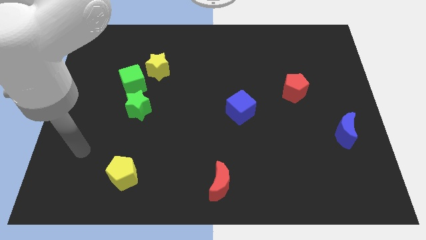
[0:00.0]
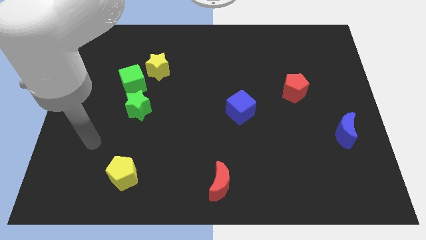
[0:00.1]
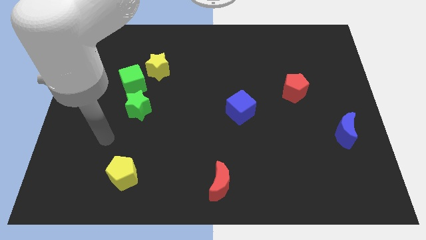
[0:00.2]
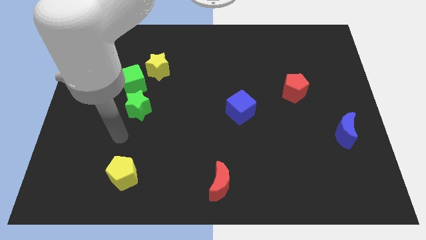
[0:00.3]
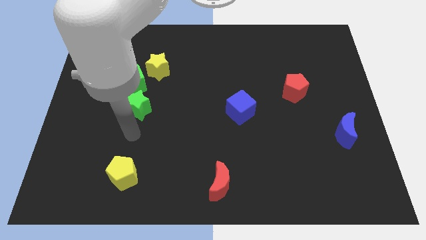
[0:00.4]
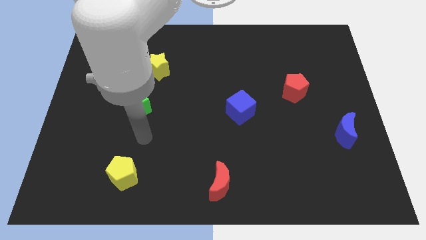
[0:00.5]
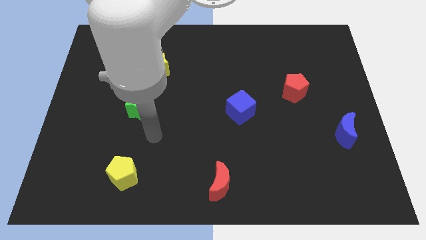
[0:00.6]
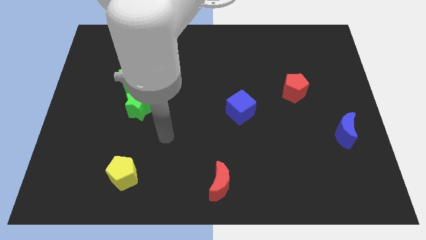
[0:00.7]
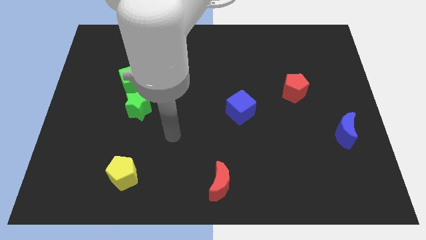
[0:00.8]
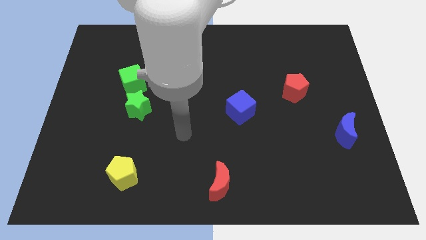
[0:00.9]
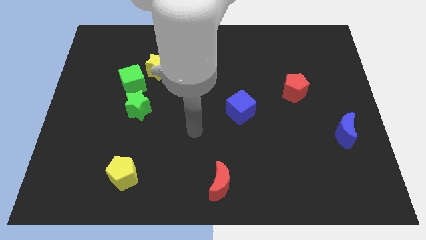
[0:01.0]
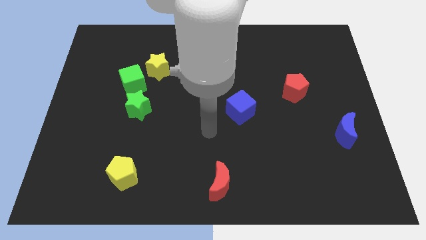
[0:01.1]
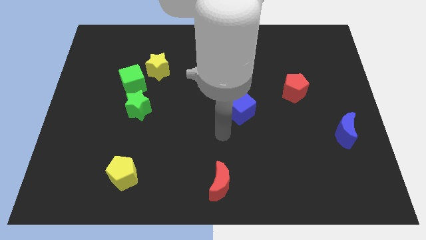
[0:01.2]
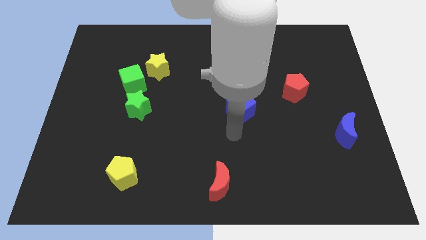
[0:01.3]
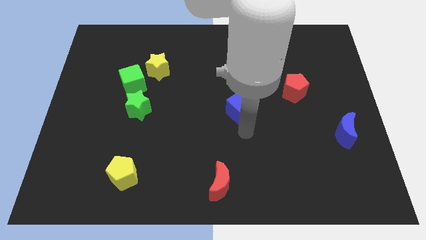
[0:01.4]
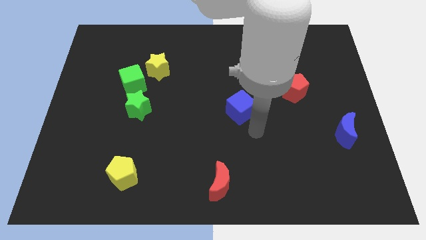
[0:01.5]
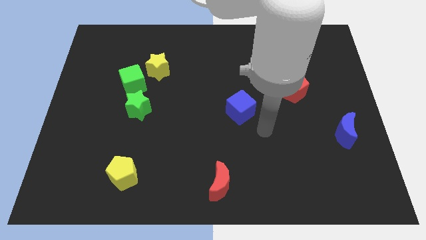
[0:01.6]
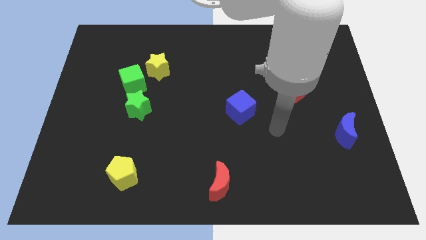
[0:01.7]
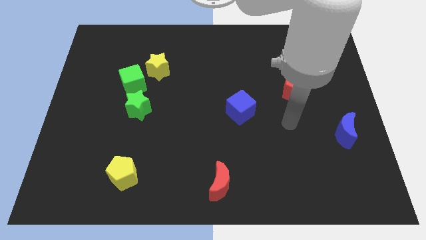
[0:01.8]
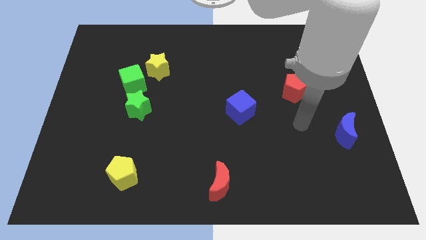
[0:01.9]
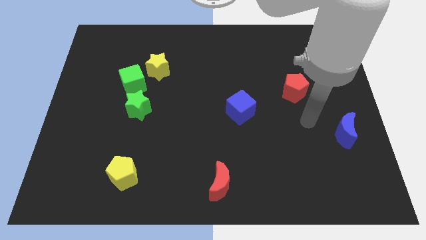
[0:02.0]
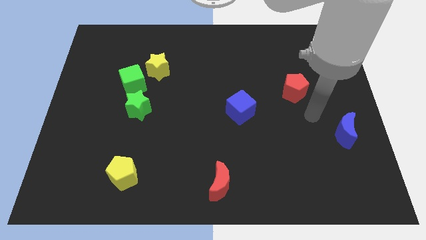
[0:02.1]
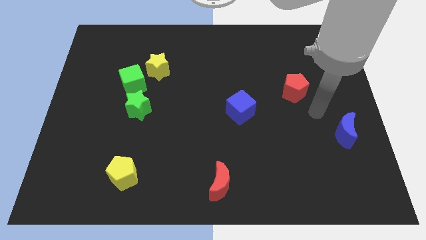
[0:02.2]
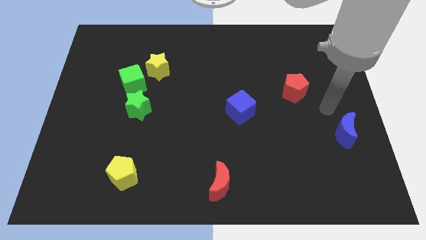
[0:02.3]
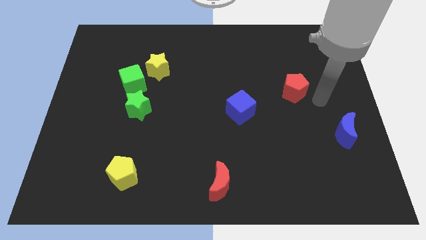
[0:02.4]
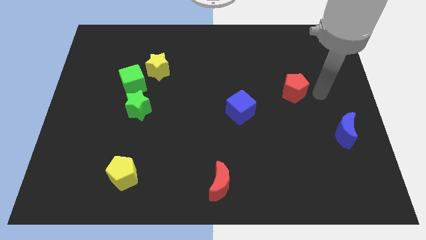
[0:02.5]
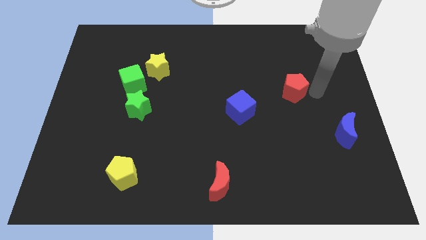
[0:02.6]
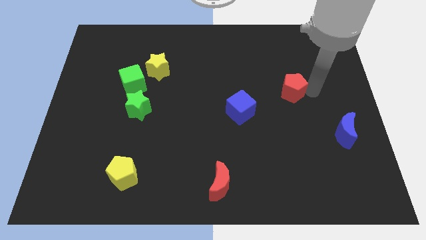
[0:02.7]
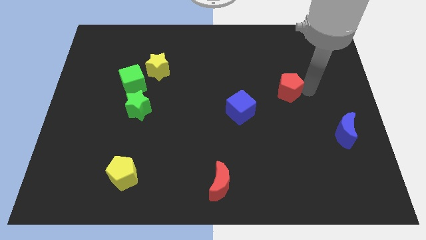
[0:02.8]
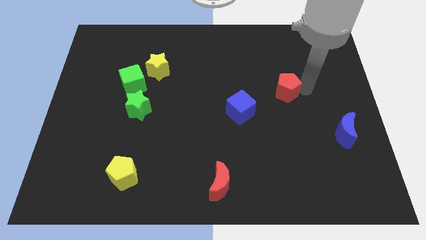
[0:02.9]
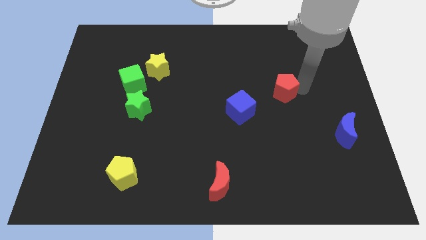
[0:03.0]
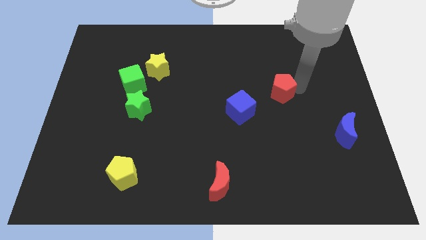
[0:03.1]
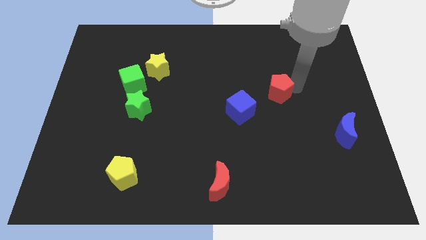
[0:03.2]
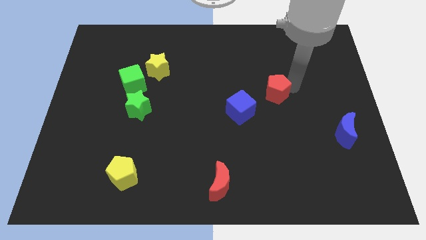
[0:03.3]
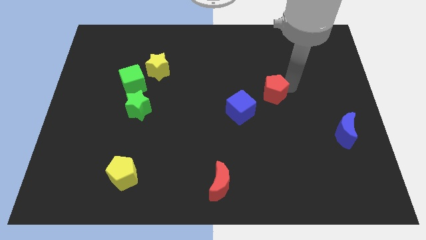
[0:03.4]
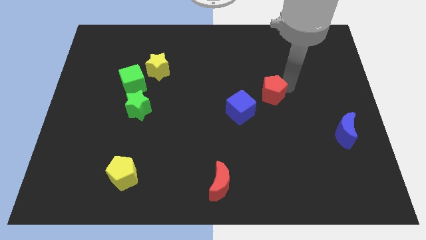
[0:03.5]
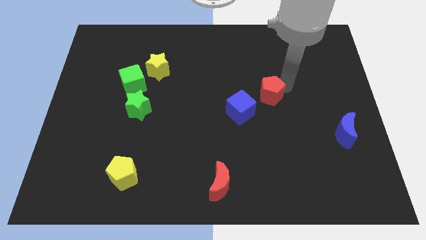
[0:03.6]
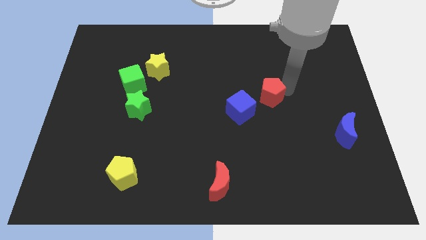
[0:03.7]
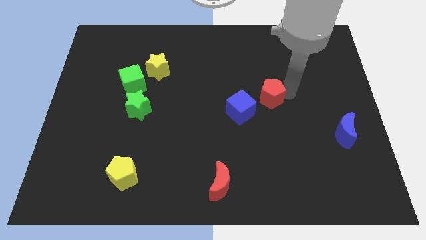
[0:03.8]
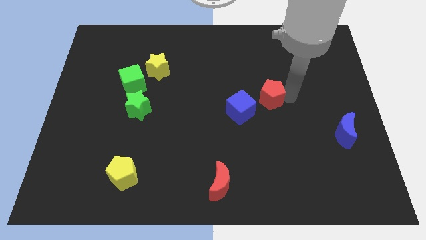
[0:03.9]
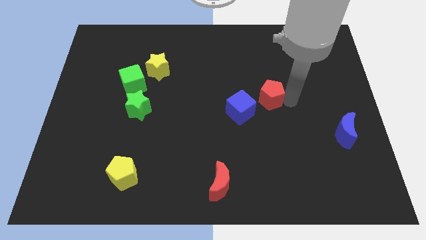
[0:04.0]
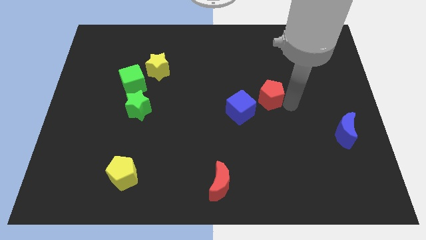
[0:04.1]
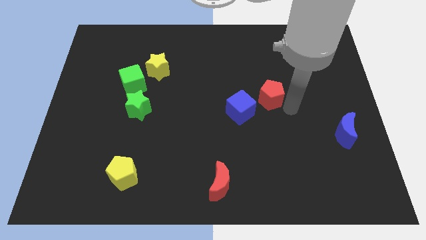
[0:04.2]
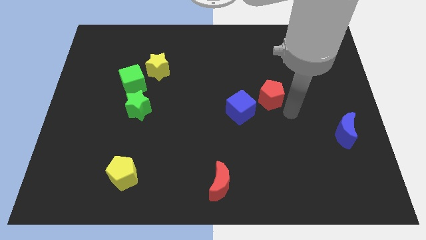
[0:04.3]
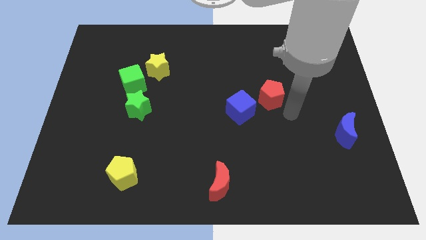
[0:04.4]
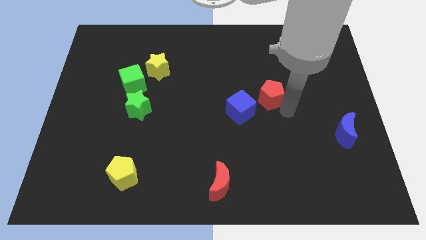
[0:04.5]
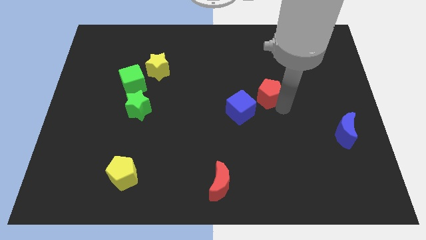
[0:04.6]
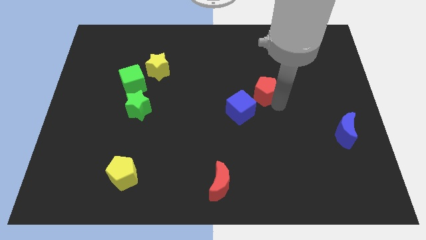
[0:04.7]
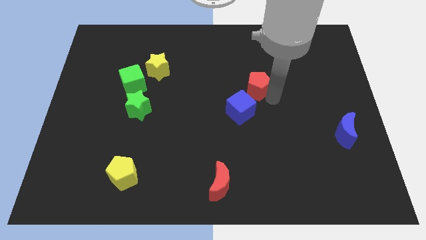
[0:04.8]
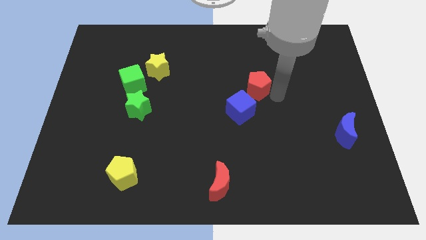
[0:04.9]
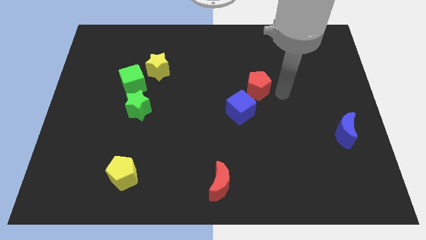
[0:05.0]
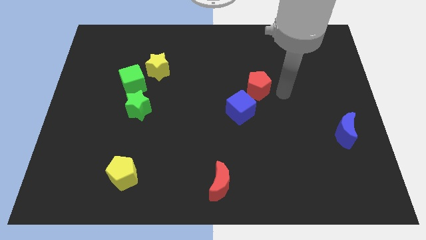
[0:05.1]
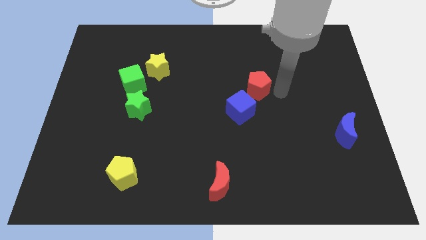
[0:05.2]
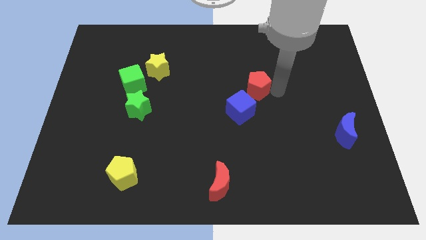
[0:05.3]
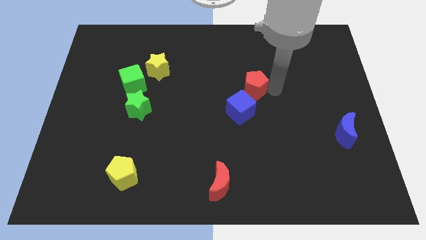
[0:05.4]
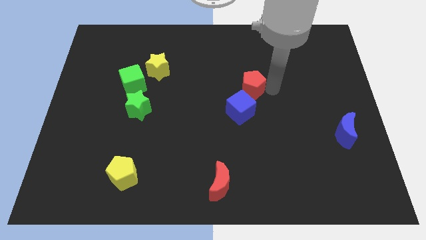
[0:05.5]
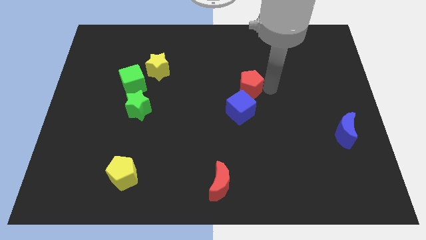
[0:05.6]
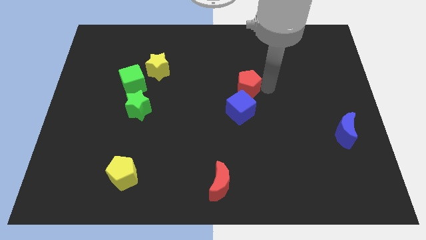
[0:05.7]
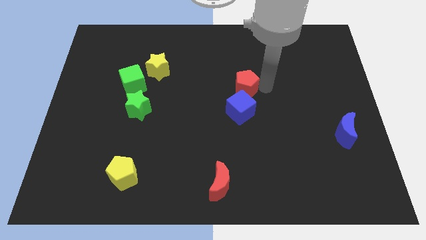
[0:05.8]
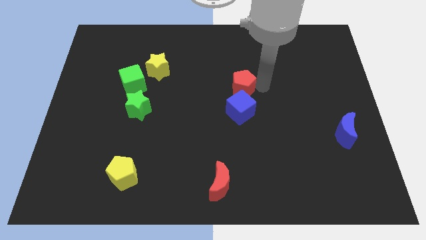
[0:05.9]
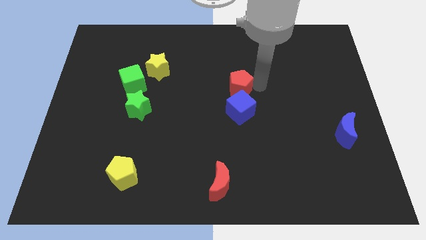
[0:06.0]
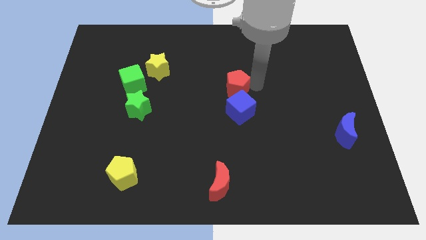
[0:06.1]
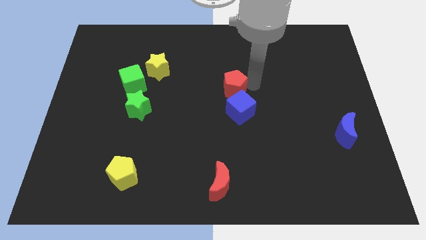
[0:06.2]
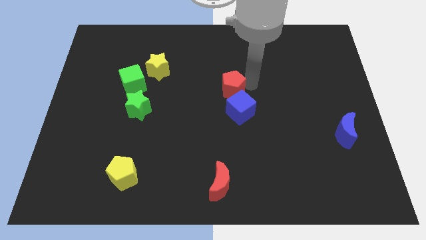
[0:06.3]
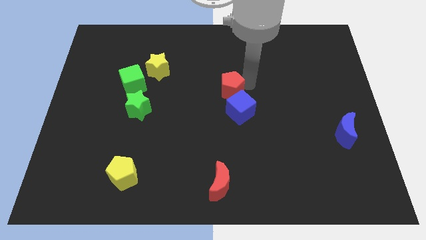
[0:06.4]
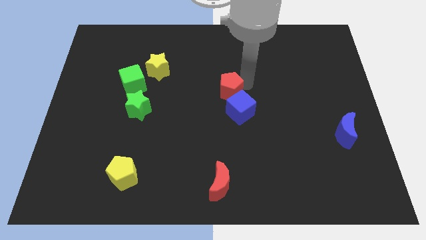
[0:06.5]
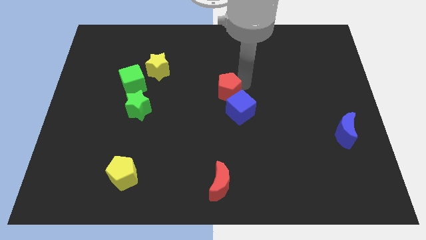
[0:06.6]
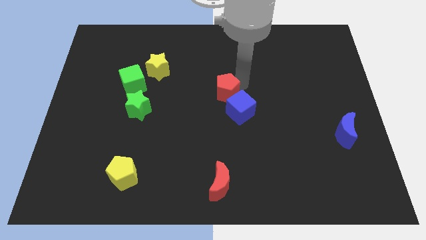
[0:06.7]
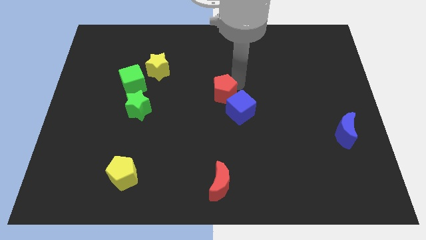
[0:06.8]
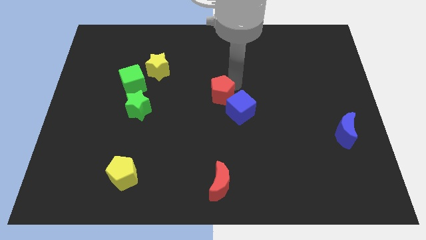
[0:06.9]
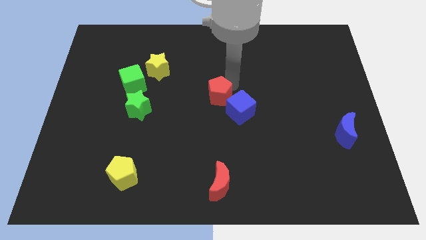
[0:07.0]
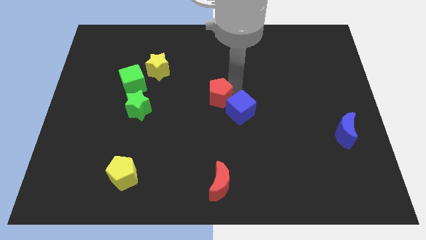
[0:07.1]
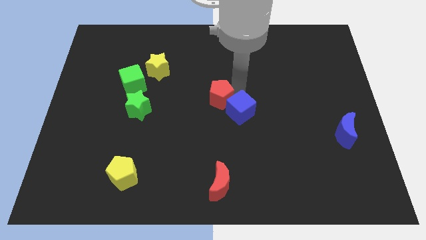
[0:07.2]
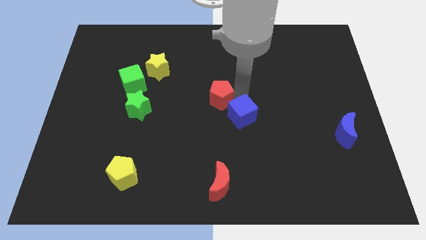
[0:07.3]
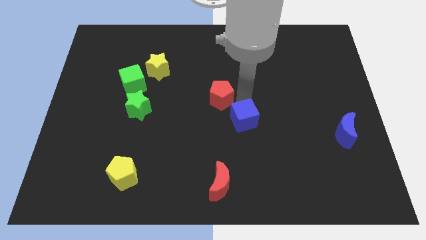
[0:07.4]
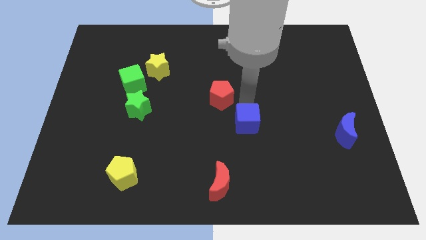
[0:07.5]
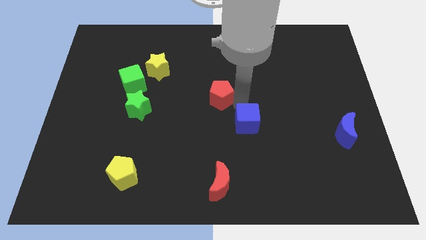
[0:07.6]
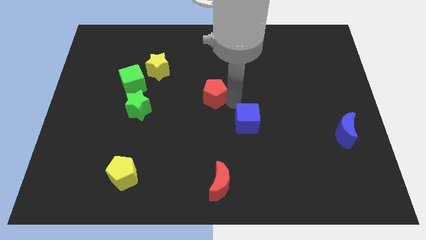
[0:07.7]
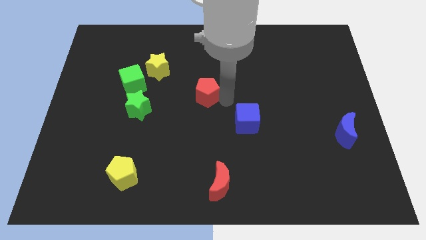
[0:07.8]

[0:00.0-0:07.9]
slide the red pentagon to the left
